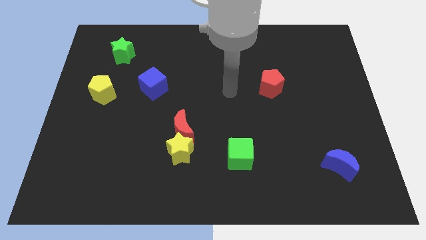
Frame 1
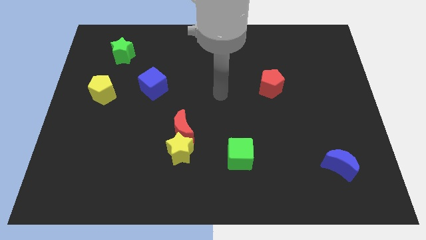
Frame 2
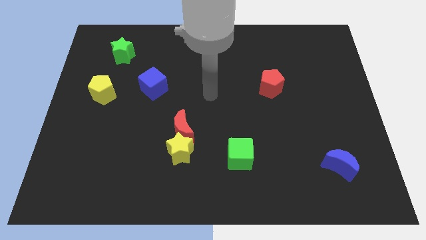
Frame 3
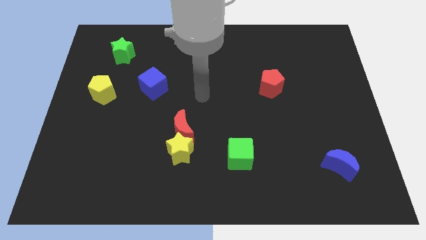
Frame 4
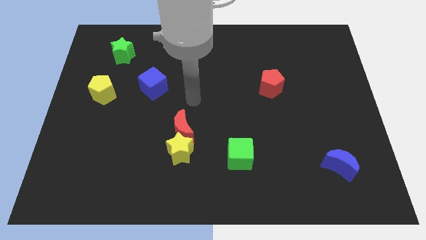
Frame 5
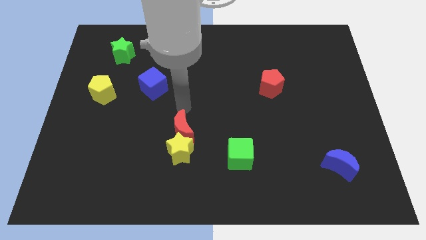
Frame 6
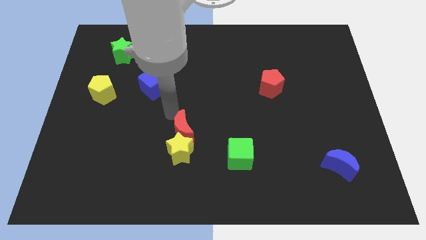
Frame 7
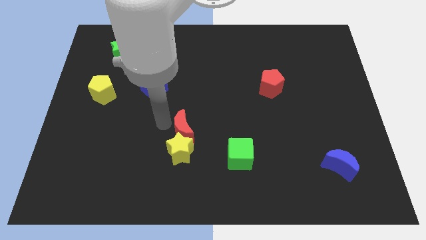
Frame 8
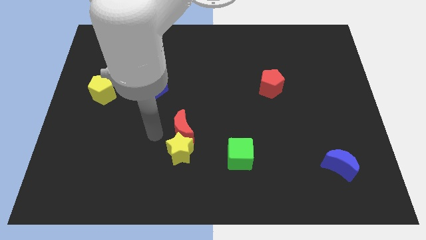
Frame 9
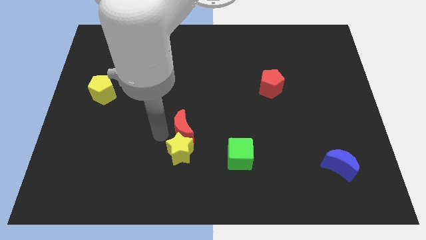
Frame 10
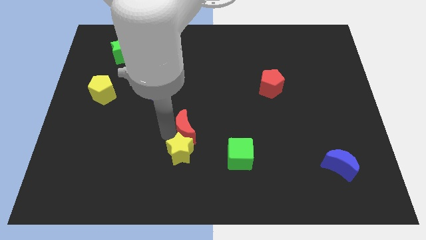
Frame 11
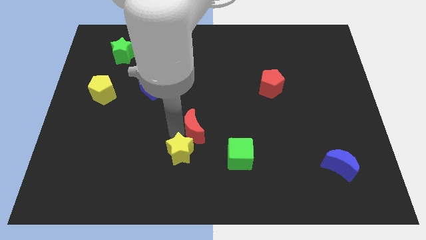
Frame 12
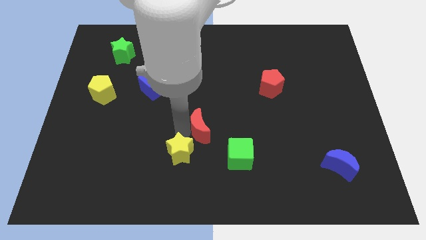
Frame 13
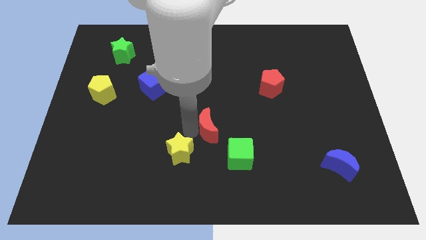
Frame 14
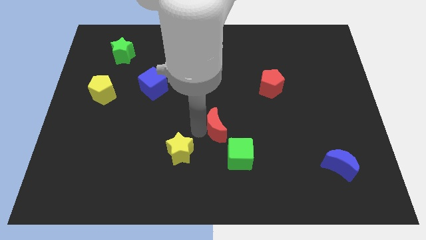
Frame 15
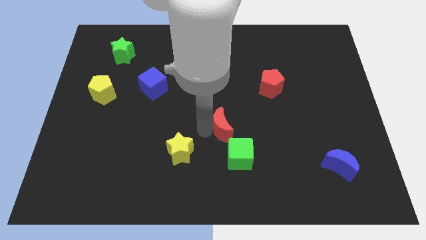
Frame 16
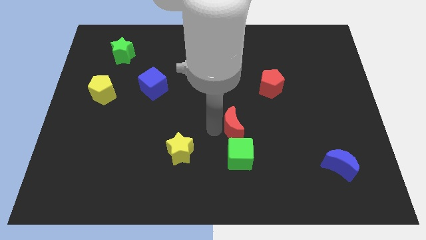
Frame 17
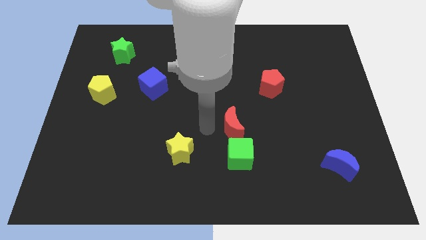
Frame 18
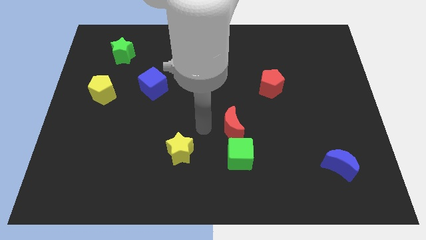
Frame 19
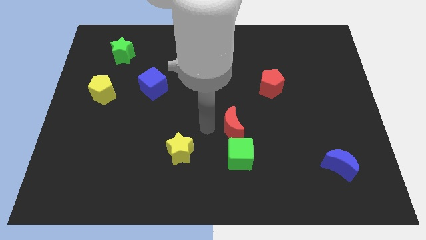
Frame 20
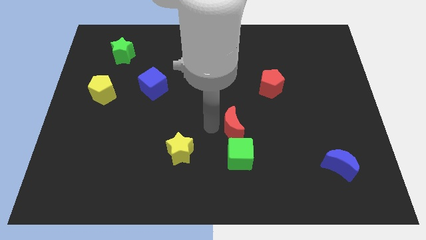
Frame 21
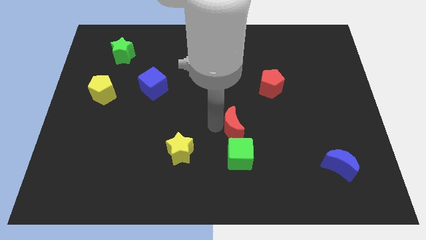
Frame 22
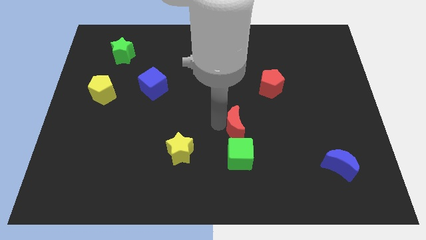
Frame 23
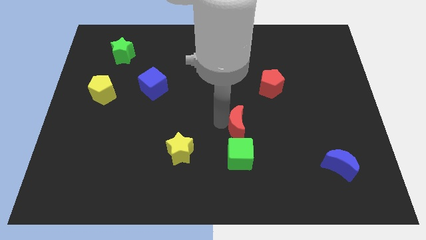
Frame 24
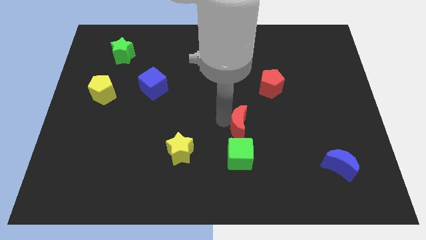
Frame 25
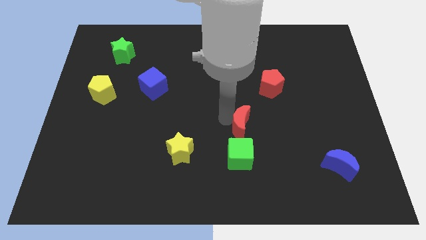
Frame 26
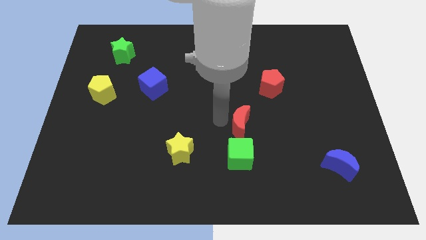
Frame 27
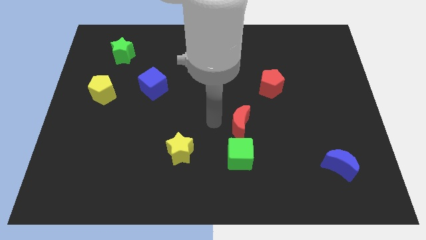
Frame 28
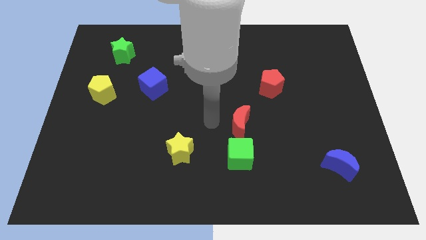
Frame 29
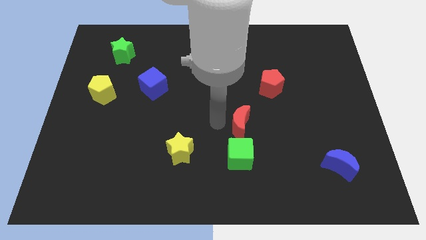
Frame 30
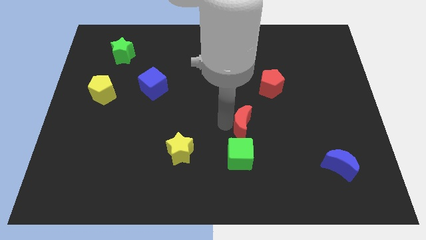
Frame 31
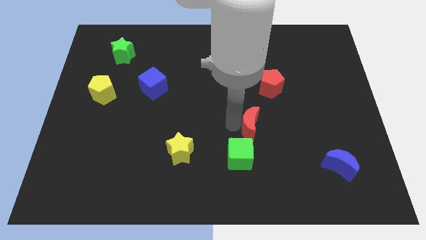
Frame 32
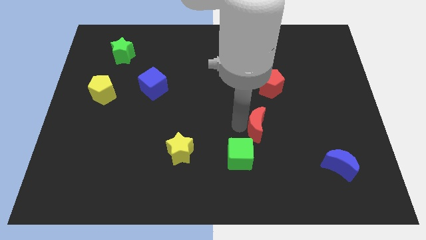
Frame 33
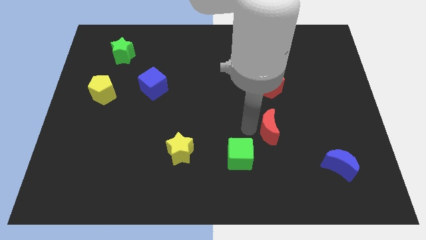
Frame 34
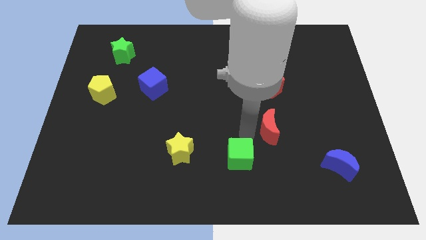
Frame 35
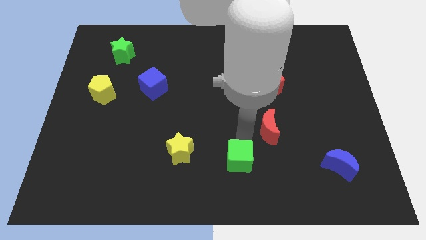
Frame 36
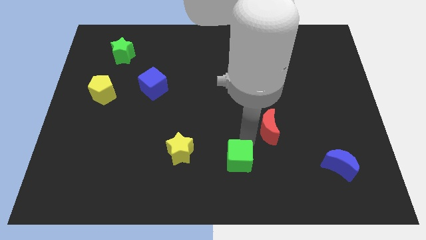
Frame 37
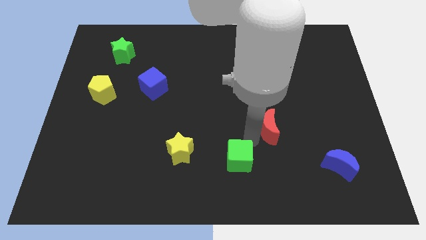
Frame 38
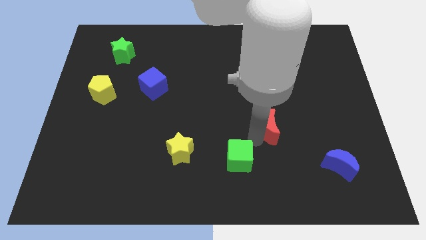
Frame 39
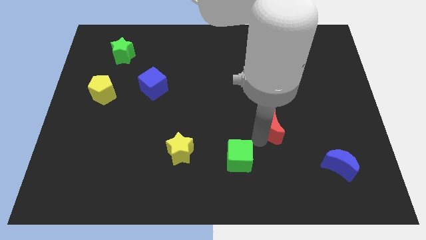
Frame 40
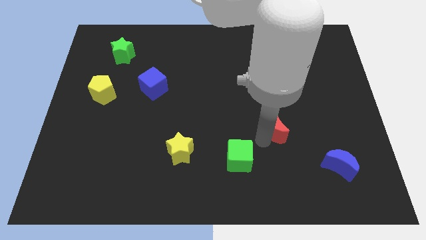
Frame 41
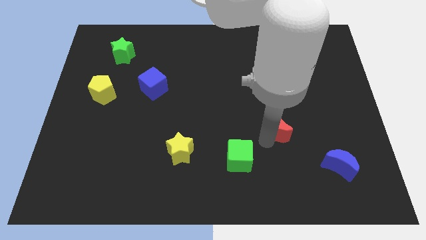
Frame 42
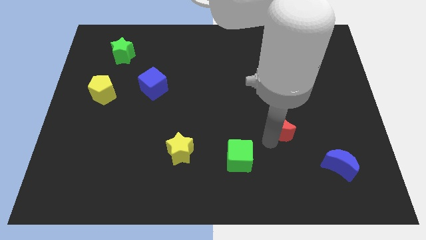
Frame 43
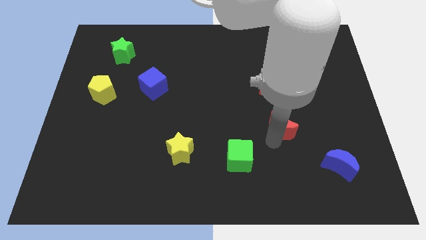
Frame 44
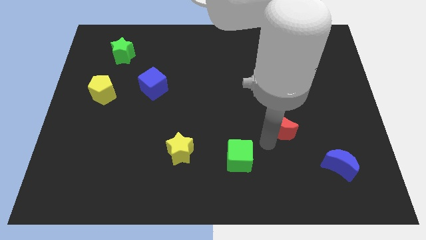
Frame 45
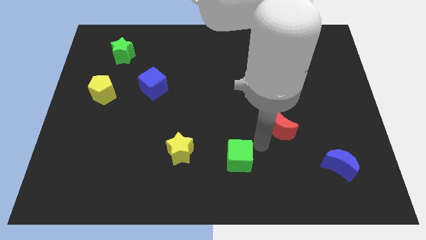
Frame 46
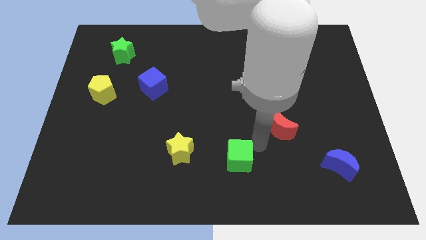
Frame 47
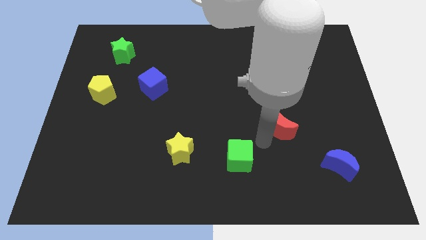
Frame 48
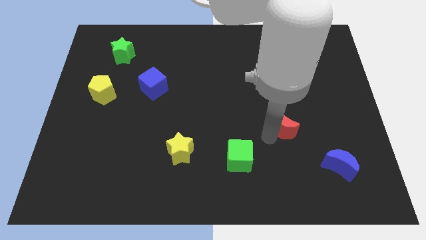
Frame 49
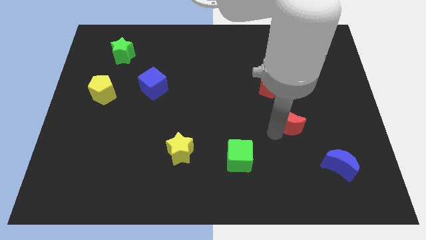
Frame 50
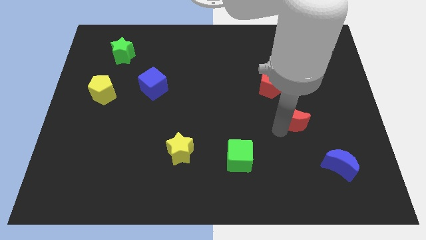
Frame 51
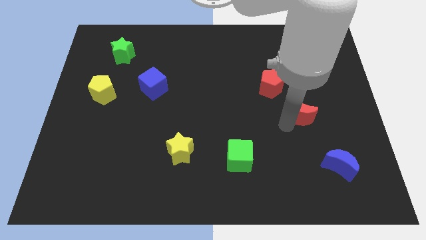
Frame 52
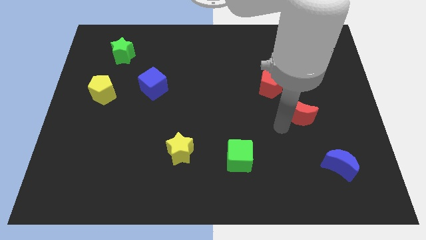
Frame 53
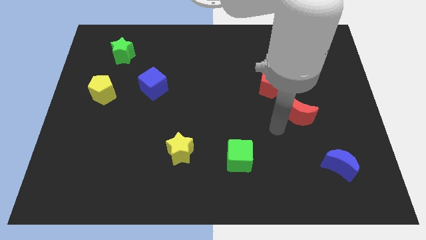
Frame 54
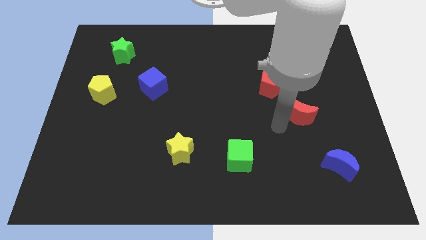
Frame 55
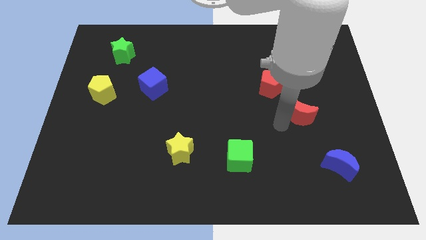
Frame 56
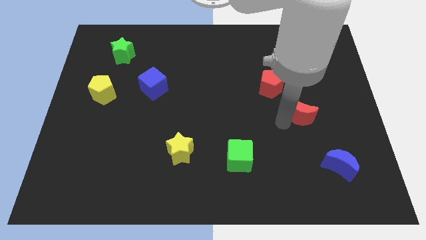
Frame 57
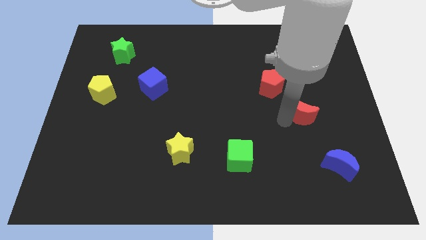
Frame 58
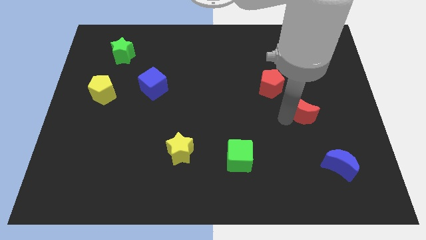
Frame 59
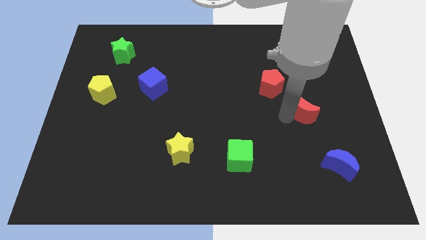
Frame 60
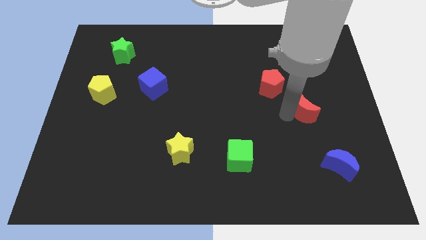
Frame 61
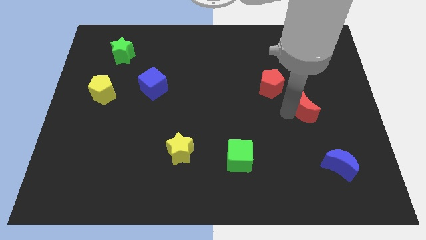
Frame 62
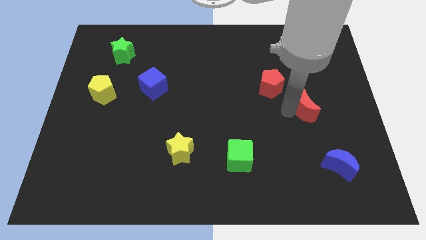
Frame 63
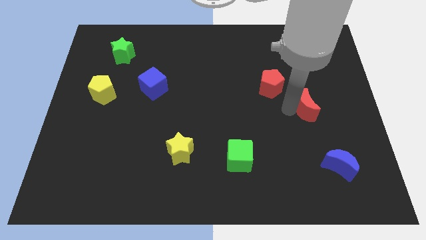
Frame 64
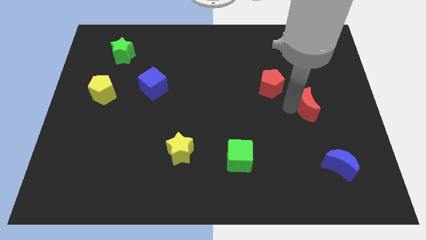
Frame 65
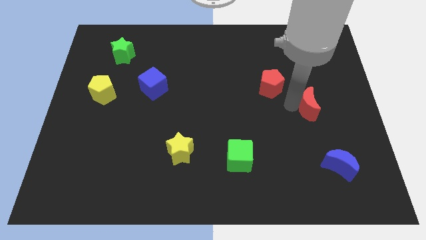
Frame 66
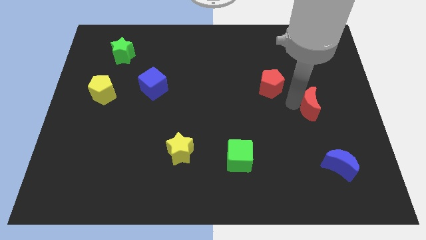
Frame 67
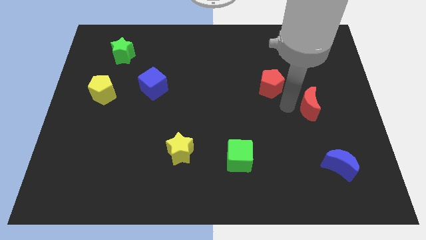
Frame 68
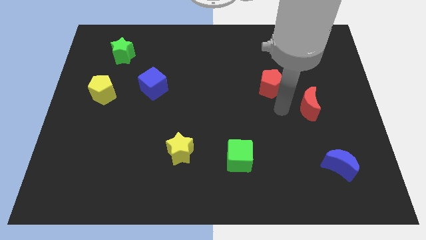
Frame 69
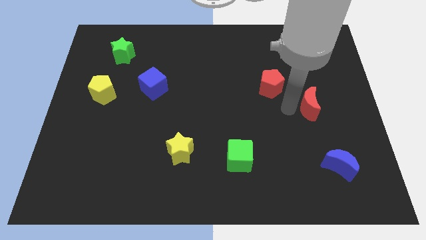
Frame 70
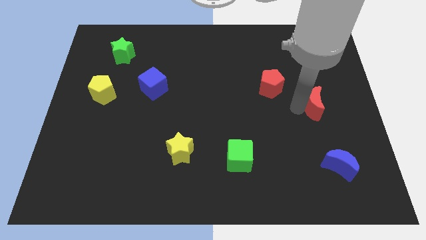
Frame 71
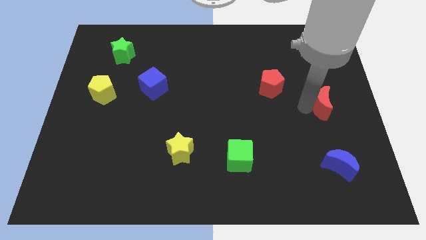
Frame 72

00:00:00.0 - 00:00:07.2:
slide the red moon to the center right
